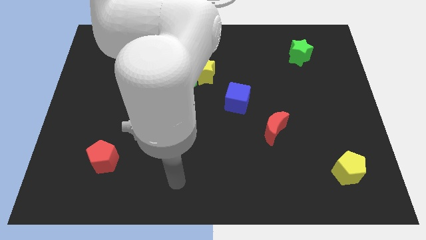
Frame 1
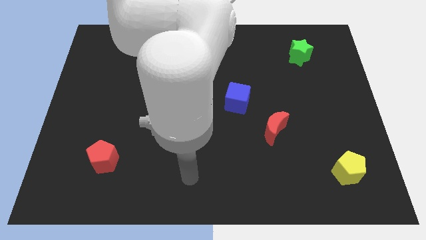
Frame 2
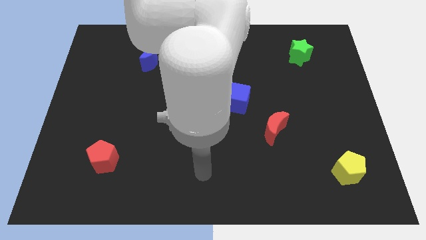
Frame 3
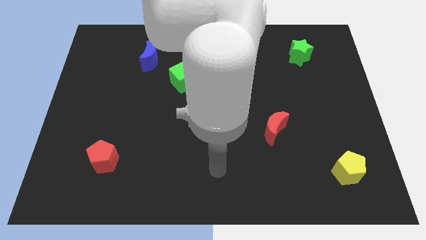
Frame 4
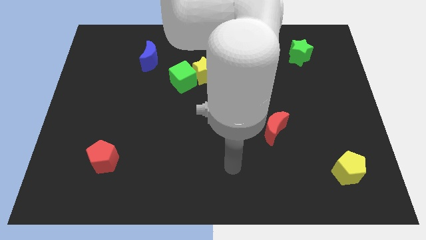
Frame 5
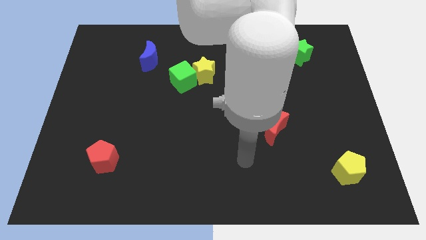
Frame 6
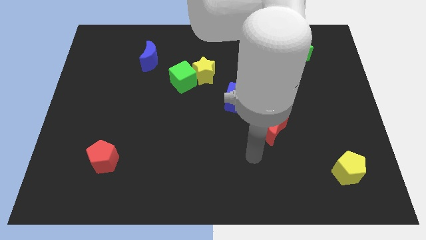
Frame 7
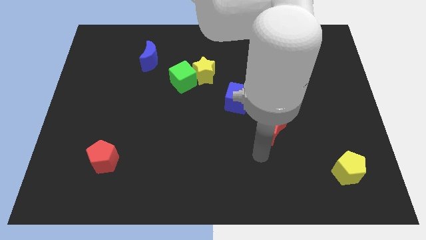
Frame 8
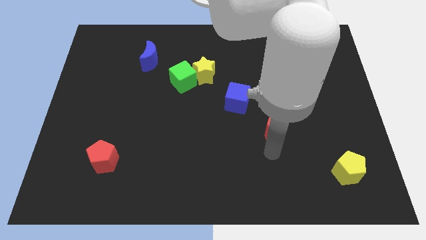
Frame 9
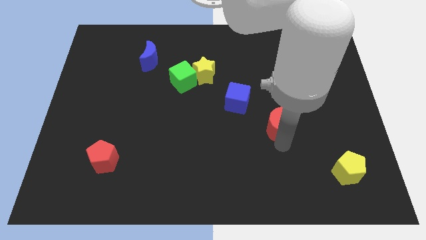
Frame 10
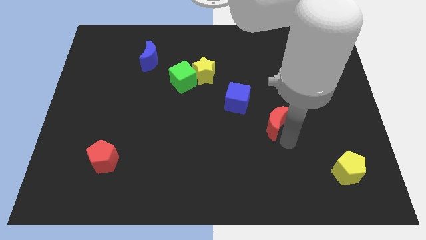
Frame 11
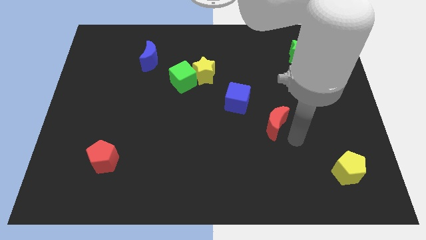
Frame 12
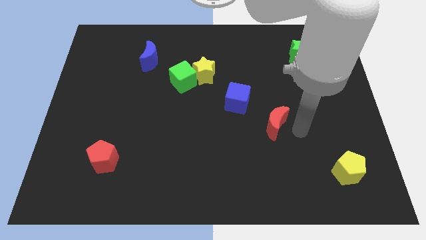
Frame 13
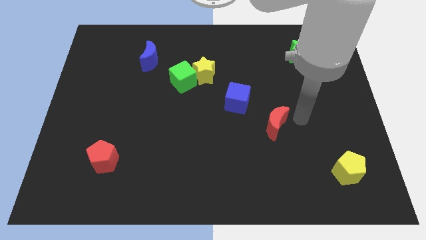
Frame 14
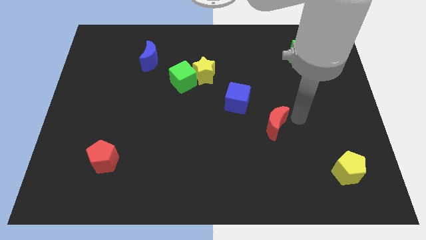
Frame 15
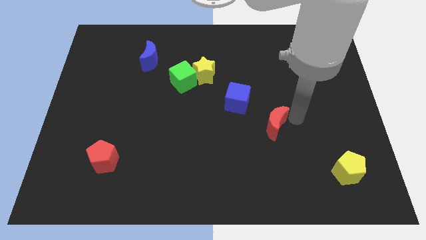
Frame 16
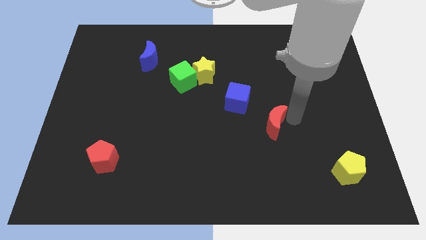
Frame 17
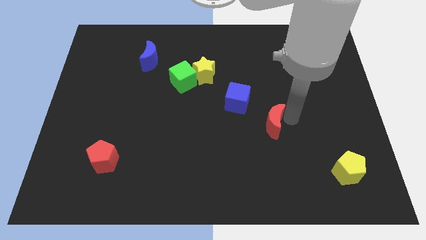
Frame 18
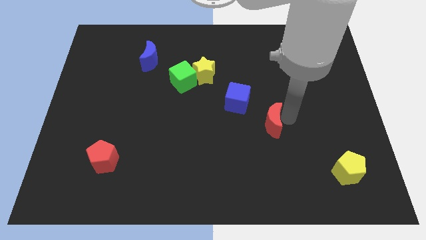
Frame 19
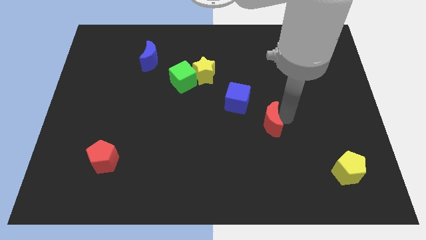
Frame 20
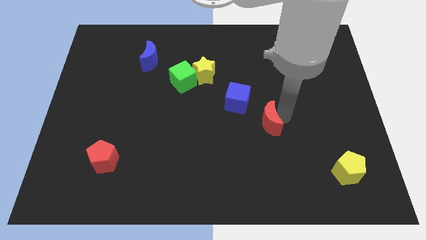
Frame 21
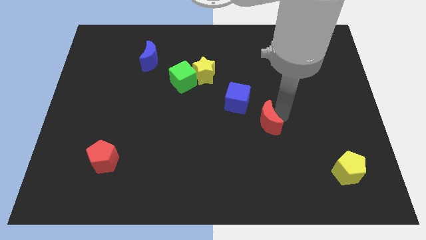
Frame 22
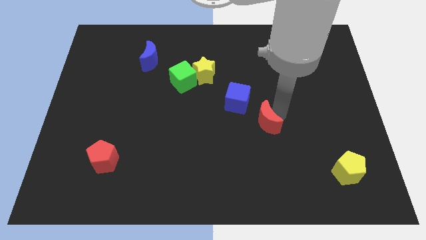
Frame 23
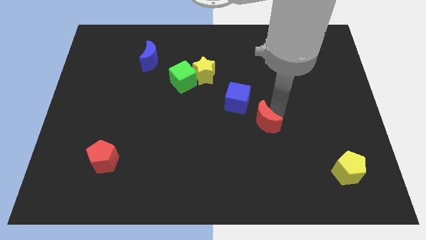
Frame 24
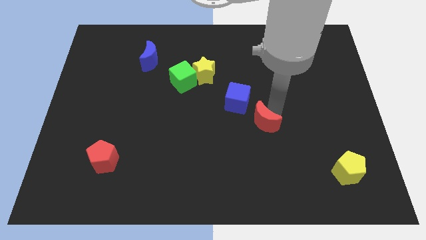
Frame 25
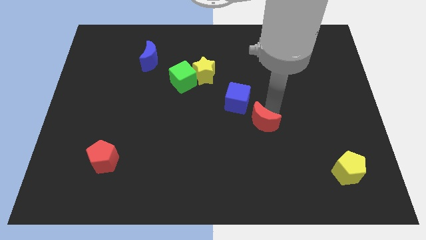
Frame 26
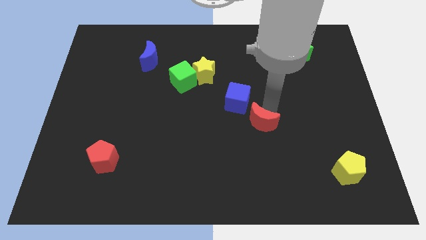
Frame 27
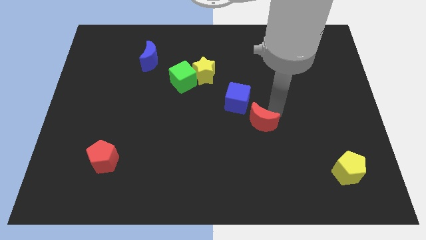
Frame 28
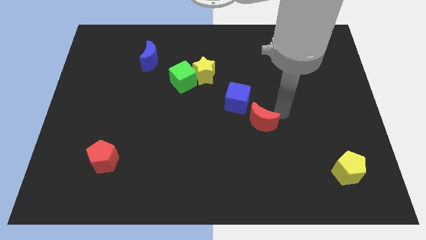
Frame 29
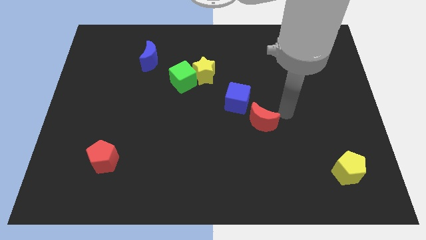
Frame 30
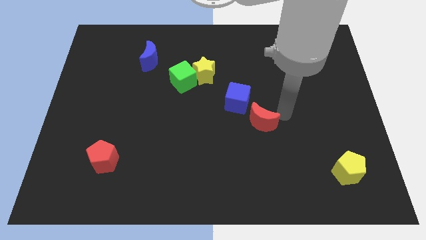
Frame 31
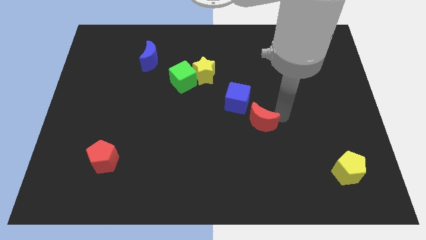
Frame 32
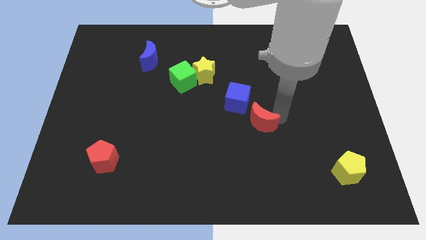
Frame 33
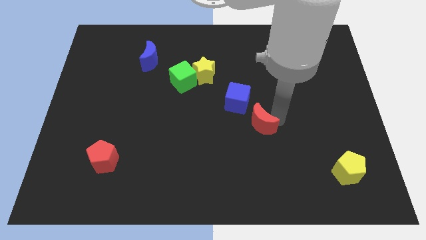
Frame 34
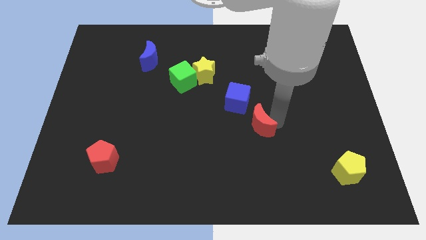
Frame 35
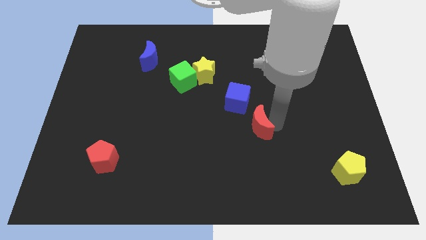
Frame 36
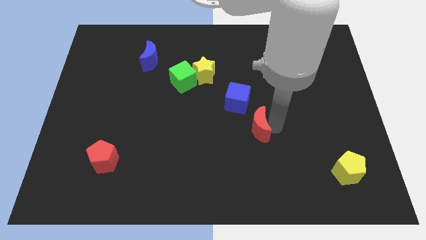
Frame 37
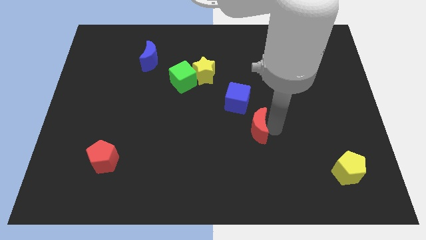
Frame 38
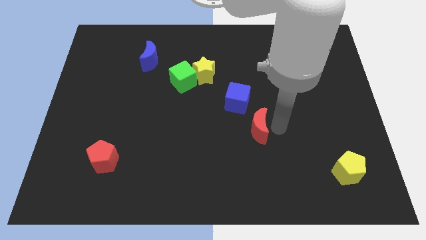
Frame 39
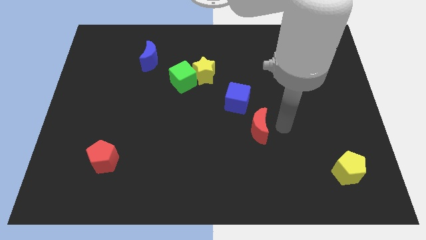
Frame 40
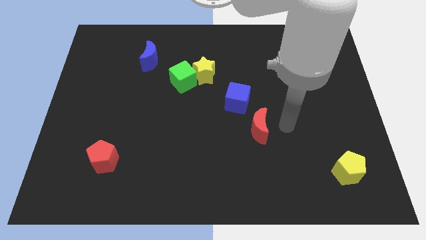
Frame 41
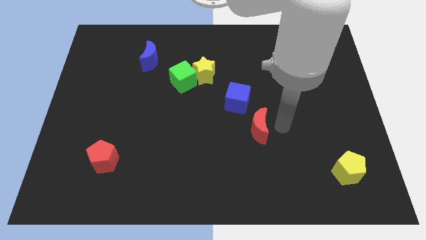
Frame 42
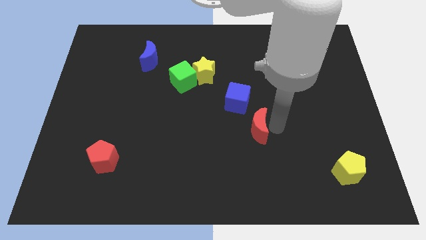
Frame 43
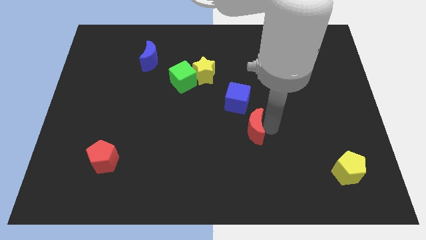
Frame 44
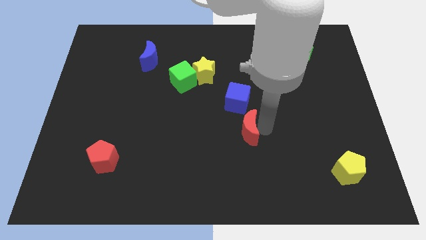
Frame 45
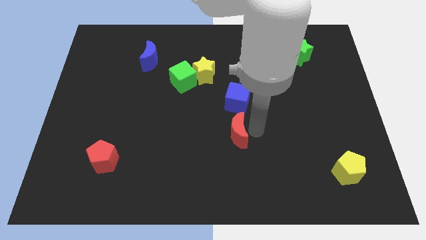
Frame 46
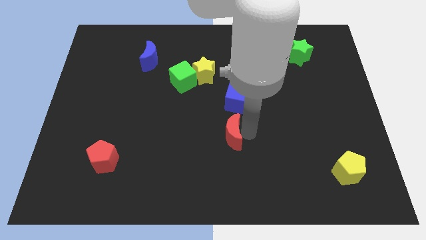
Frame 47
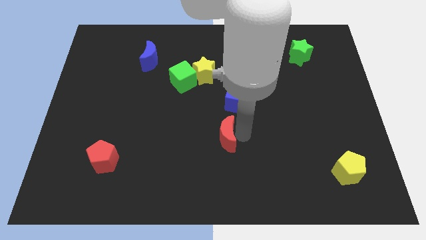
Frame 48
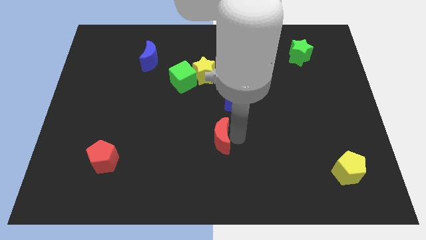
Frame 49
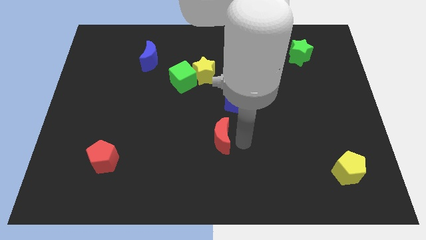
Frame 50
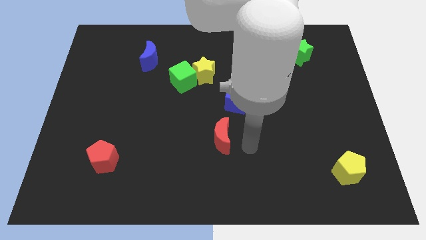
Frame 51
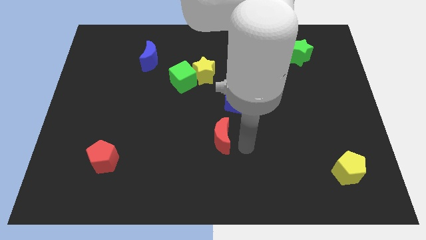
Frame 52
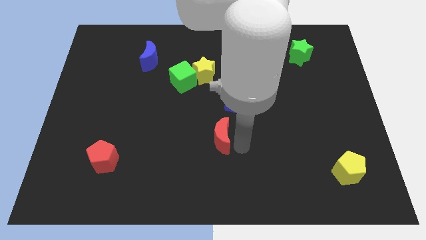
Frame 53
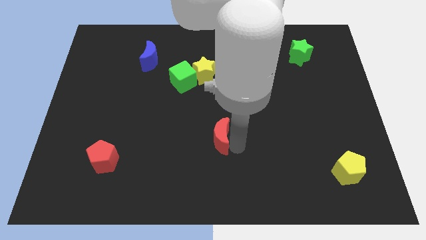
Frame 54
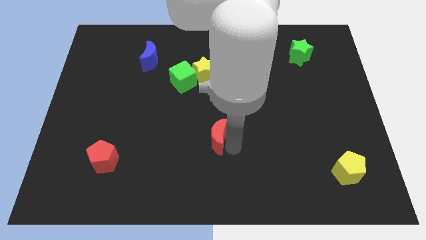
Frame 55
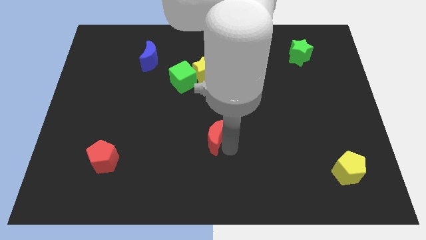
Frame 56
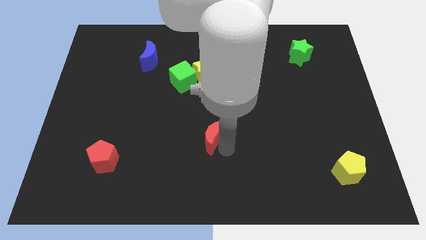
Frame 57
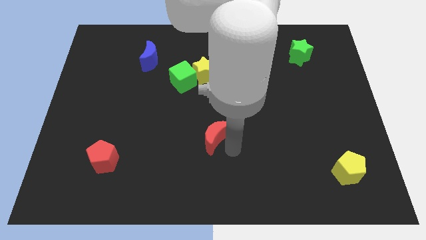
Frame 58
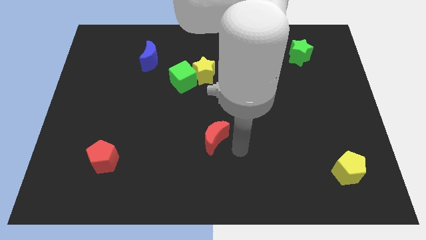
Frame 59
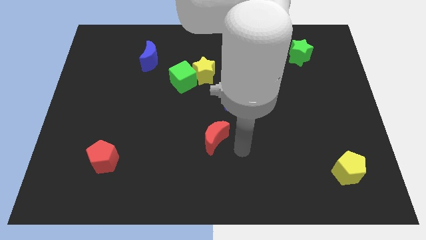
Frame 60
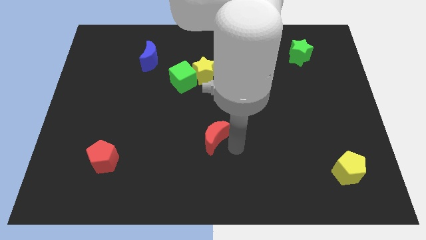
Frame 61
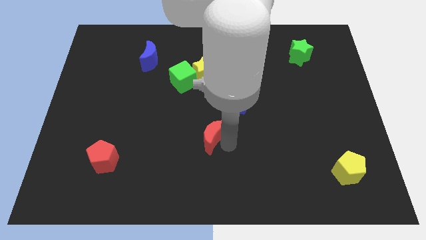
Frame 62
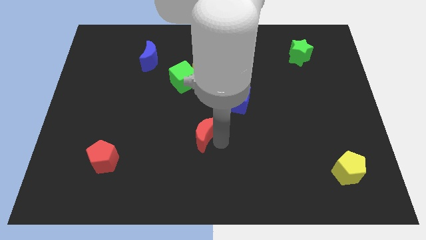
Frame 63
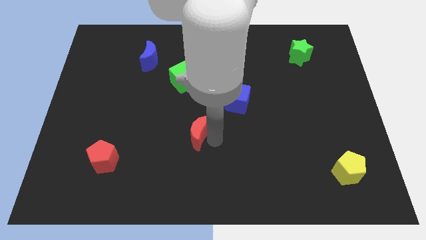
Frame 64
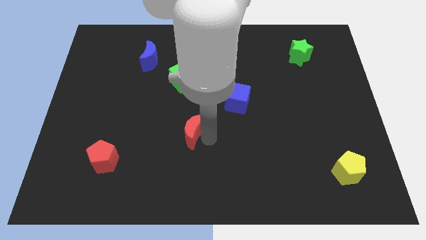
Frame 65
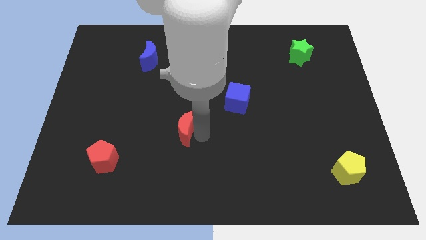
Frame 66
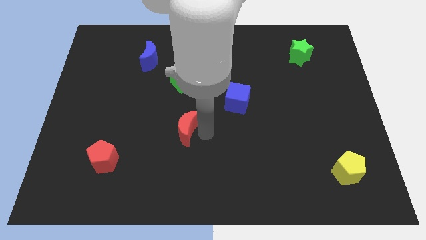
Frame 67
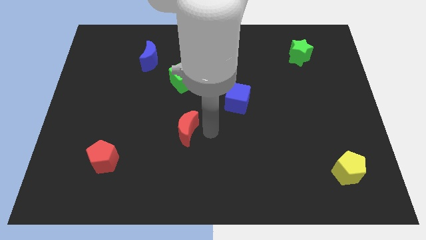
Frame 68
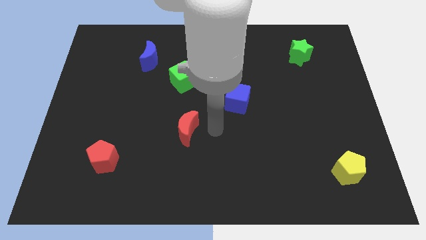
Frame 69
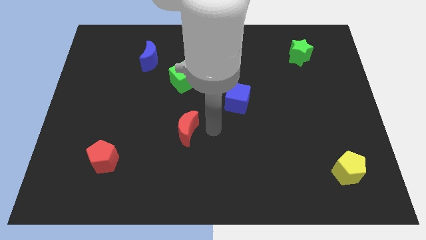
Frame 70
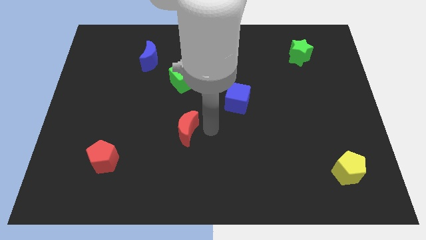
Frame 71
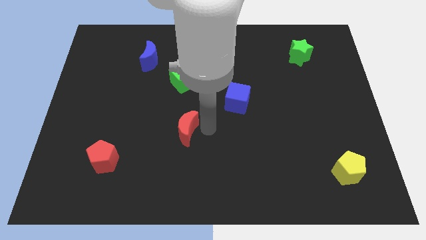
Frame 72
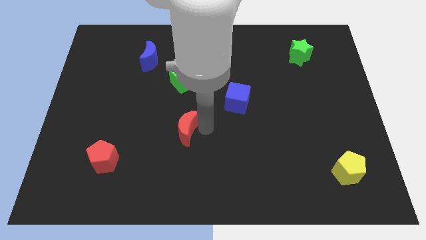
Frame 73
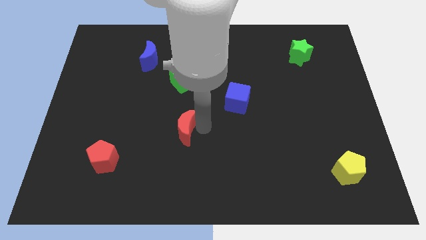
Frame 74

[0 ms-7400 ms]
move the red moon to the left

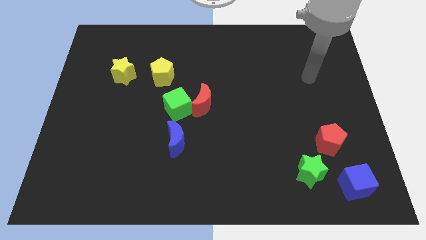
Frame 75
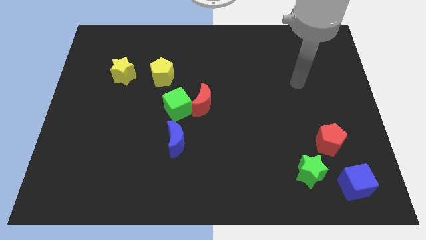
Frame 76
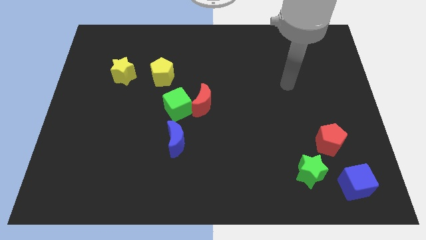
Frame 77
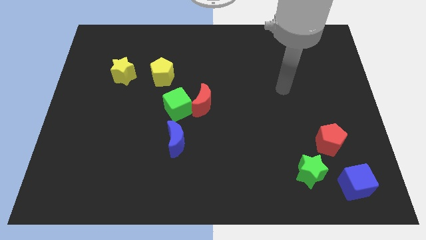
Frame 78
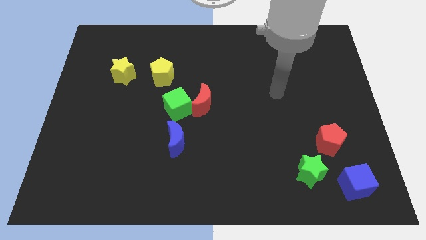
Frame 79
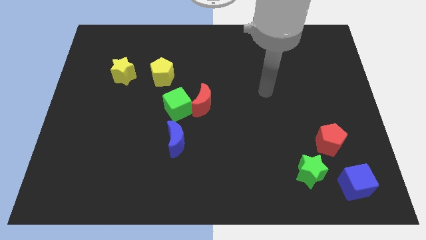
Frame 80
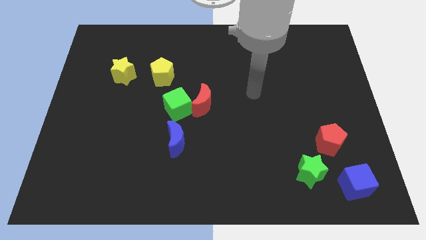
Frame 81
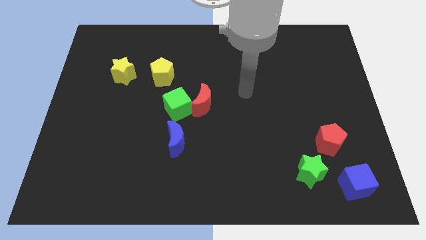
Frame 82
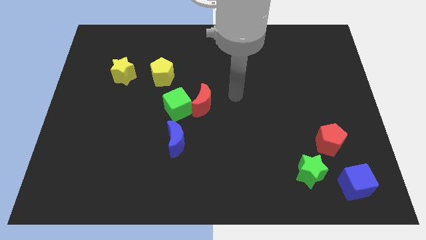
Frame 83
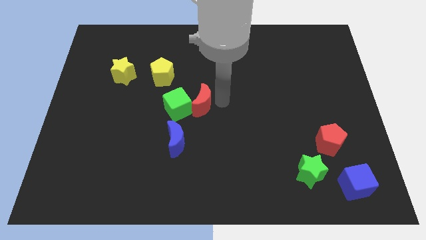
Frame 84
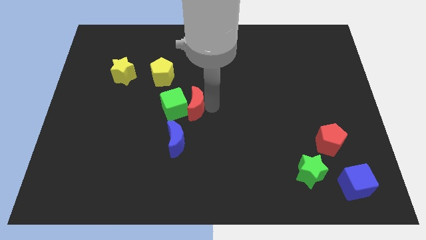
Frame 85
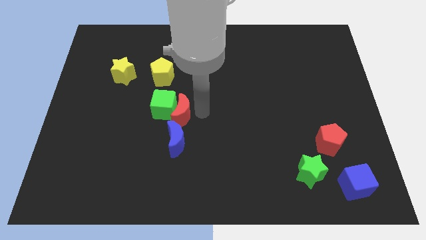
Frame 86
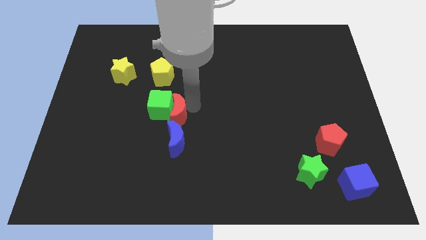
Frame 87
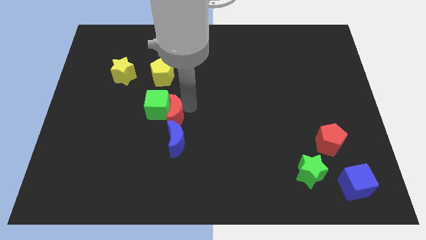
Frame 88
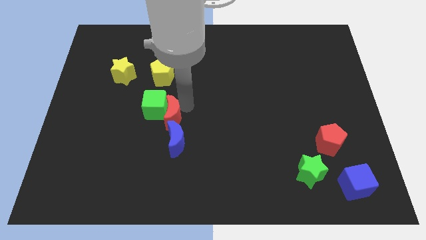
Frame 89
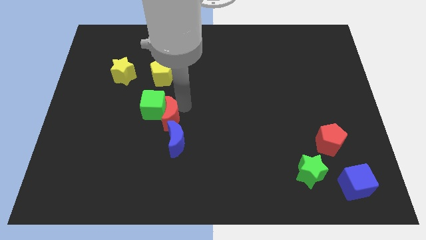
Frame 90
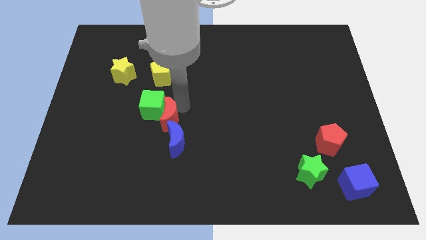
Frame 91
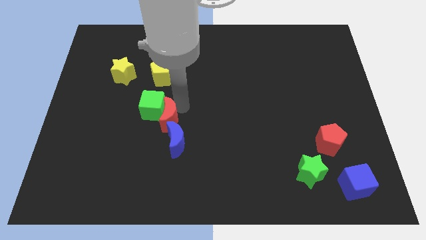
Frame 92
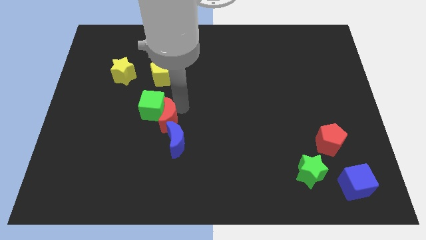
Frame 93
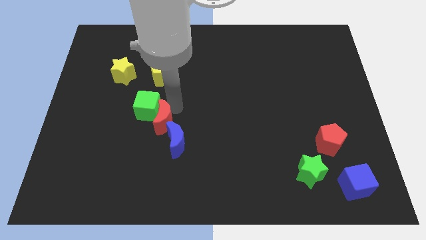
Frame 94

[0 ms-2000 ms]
push the green cube left slightly
